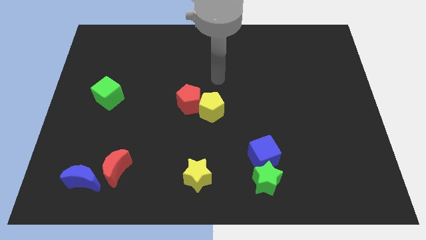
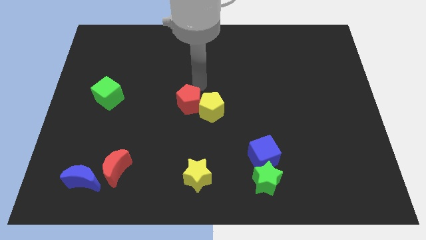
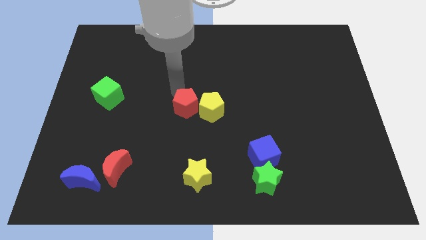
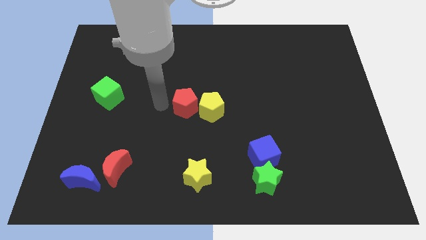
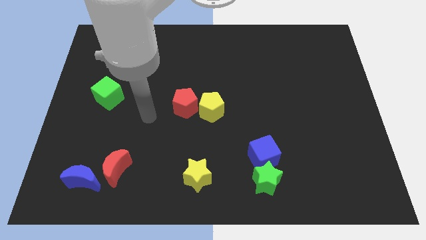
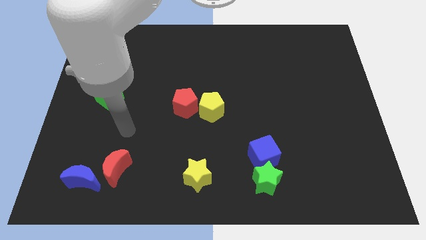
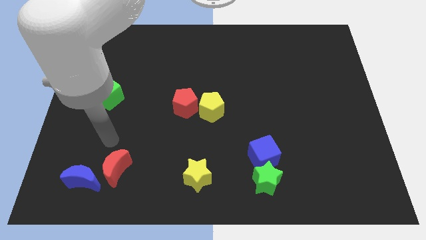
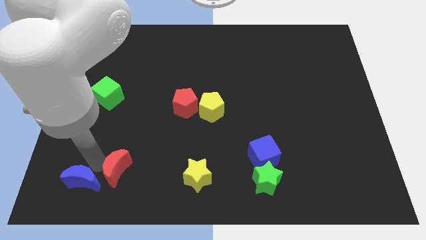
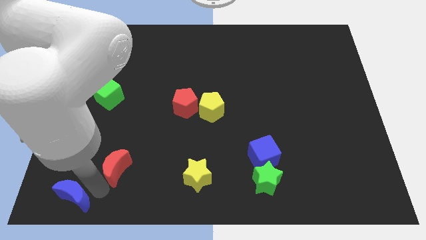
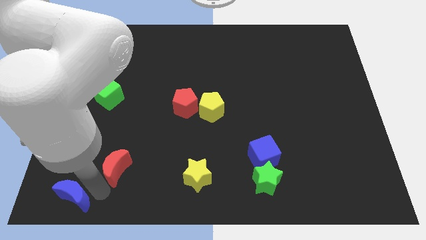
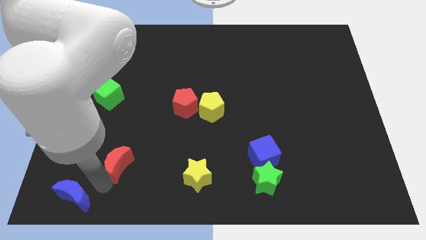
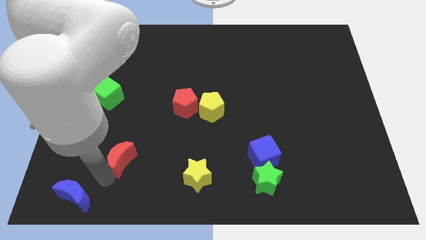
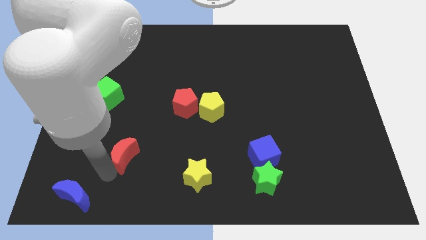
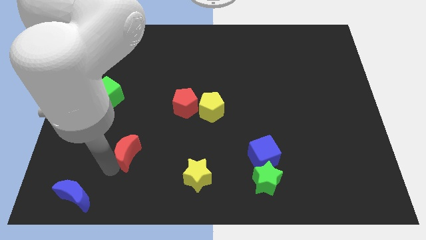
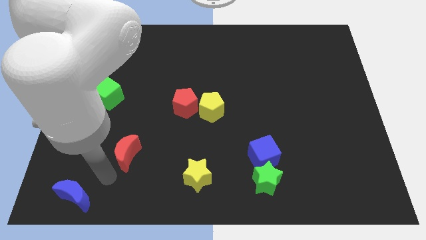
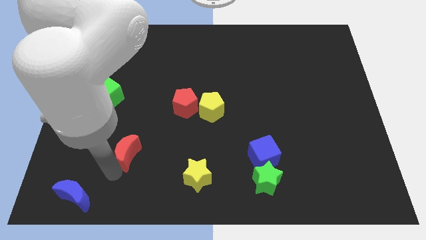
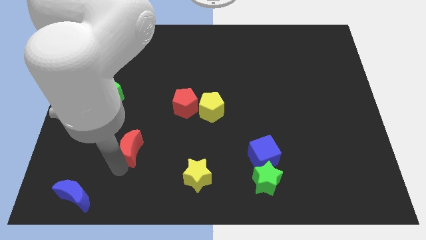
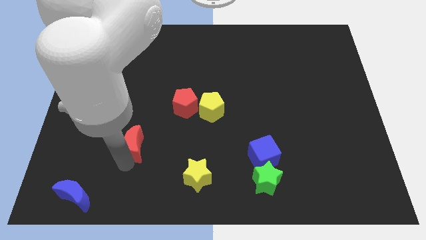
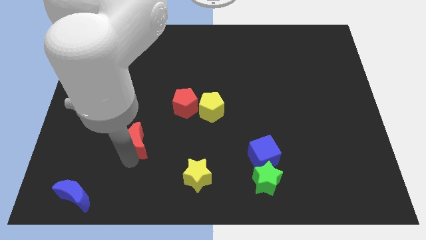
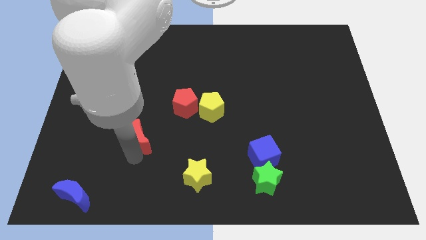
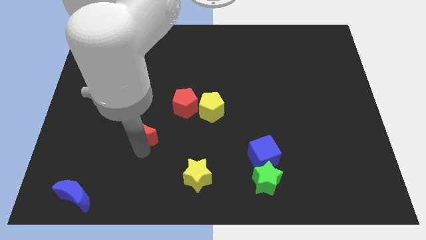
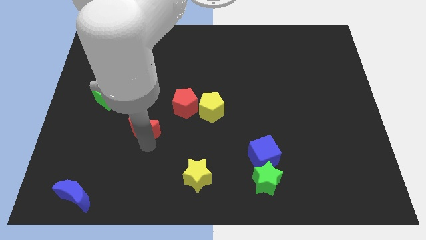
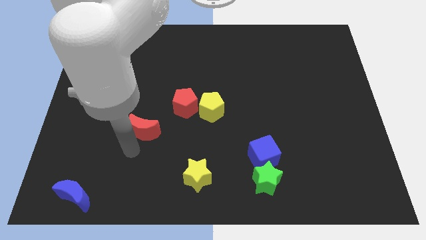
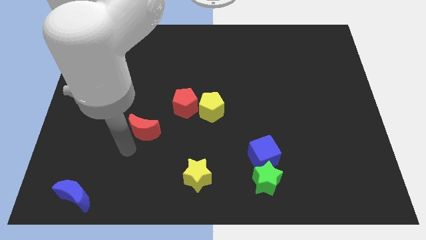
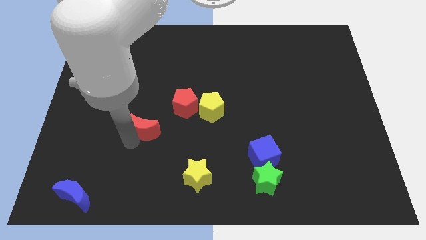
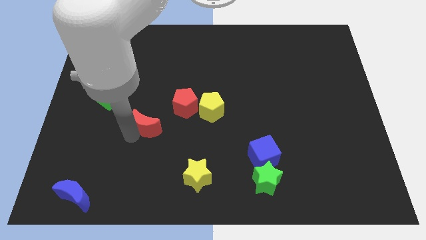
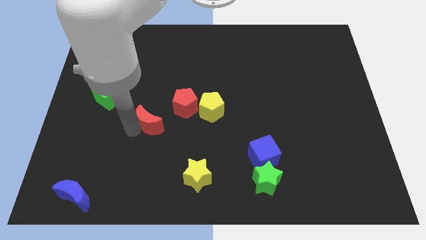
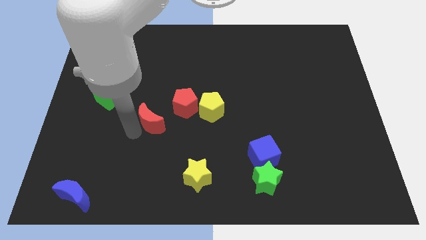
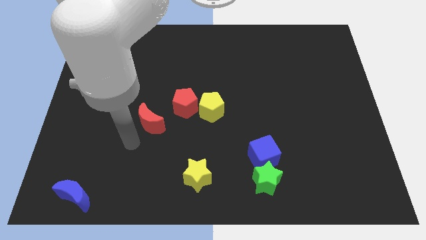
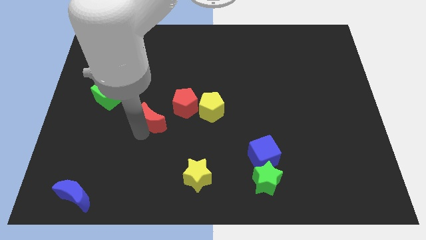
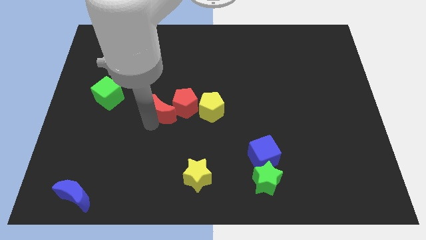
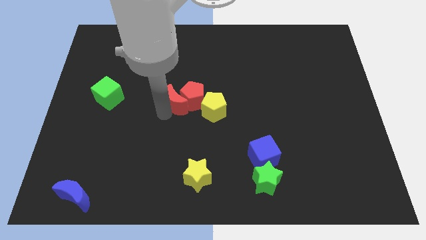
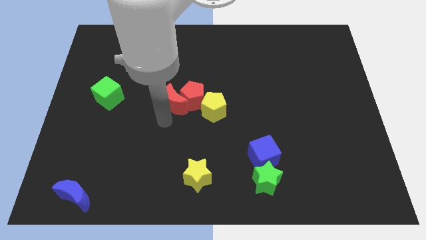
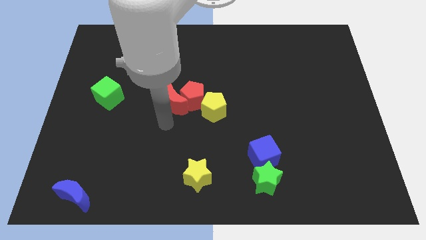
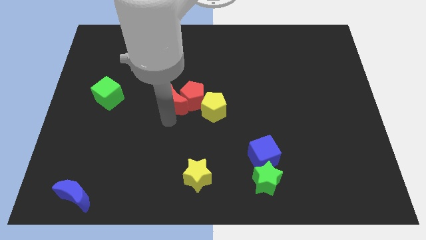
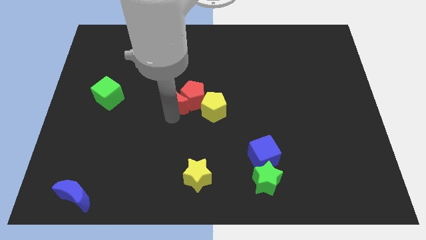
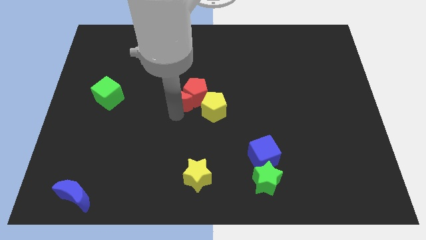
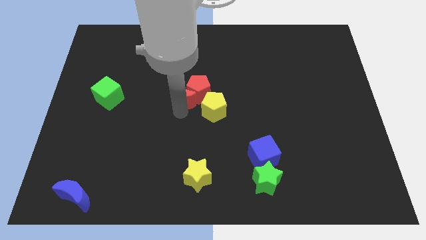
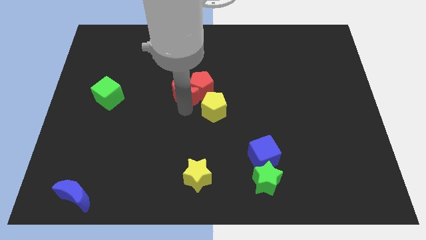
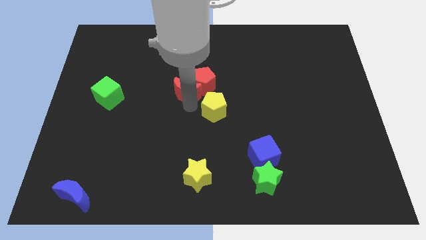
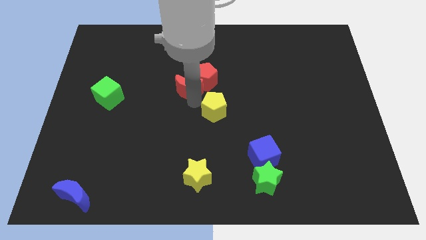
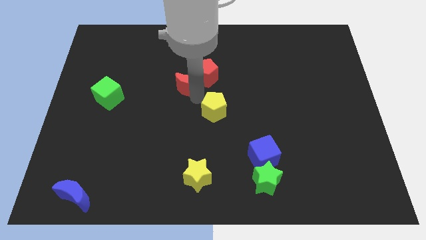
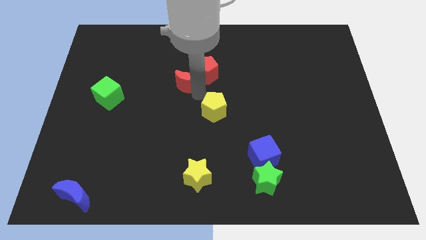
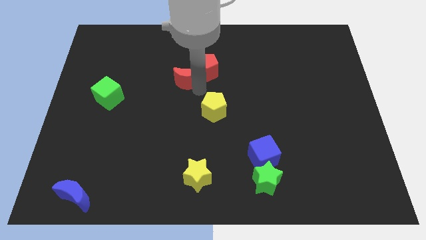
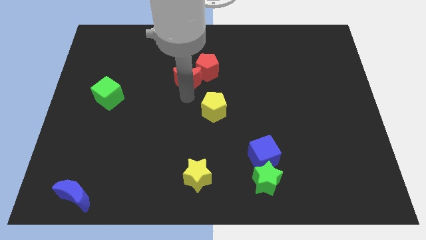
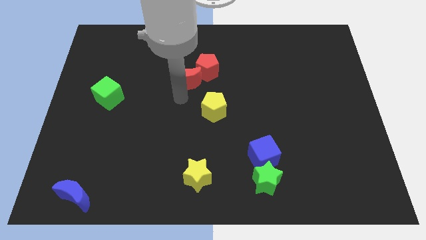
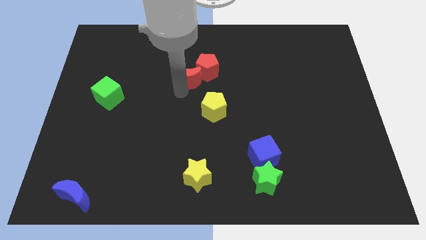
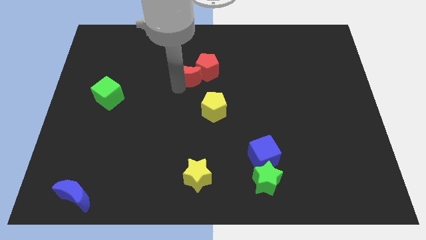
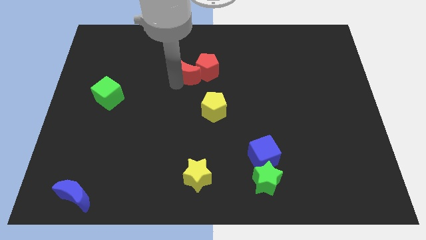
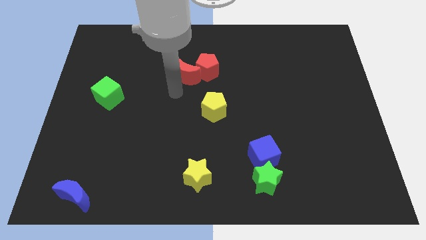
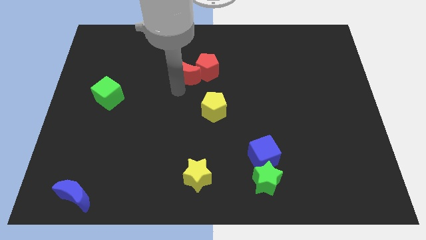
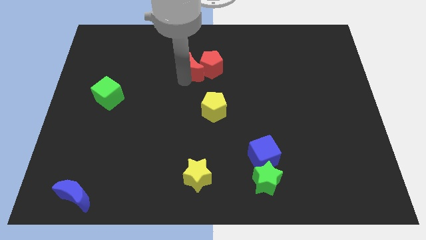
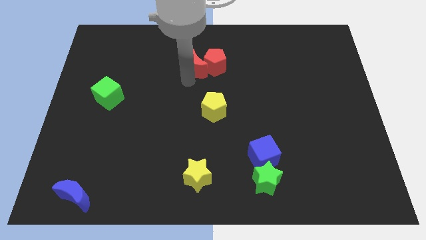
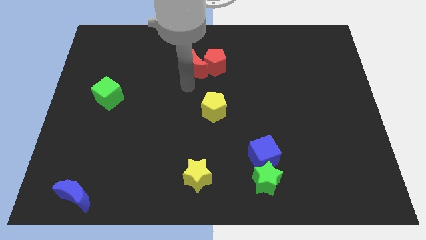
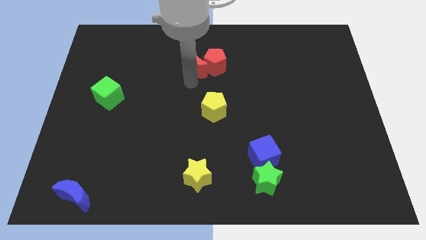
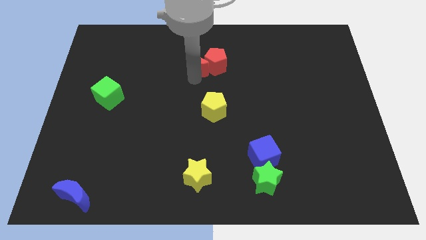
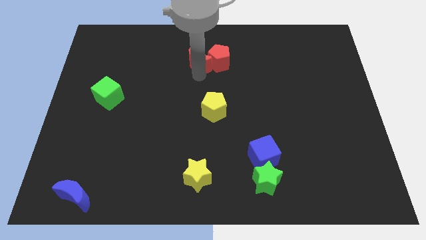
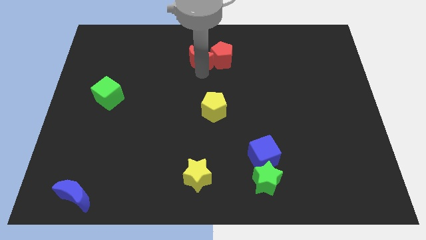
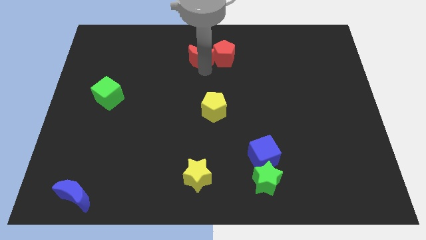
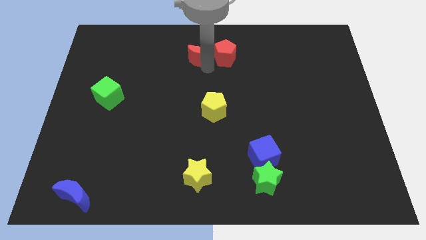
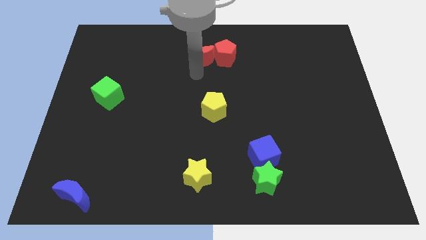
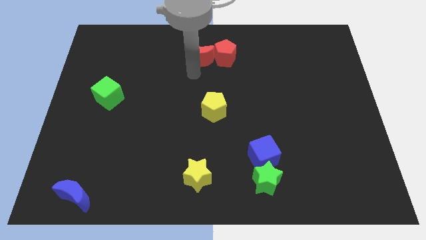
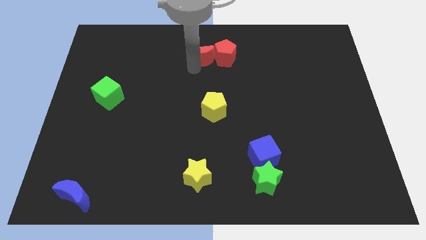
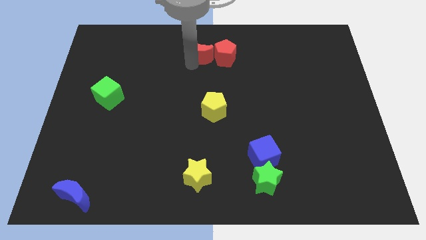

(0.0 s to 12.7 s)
move the red moon to the top side

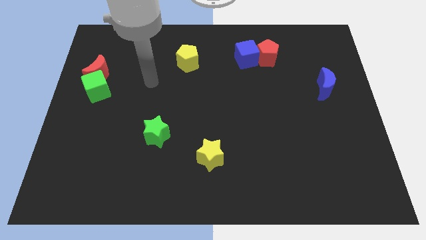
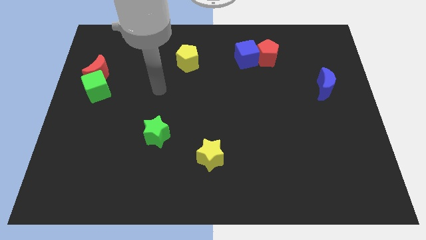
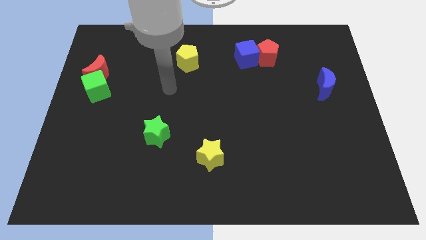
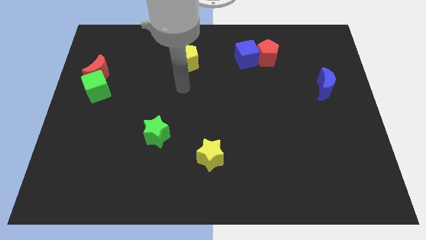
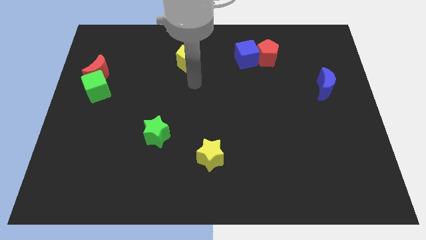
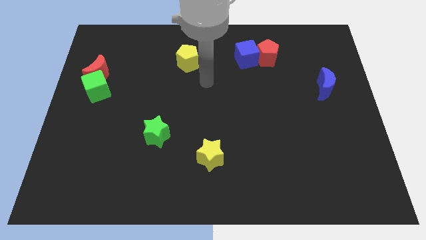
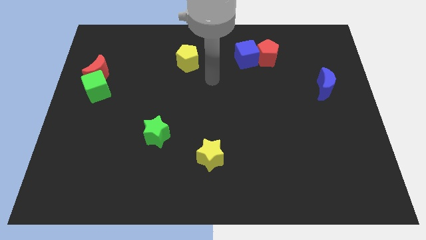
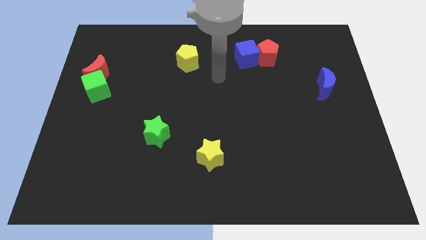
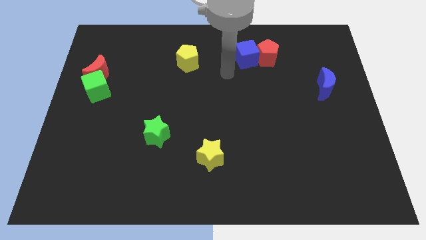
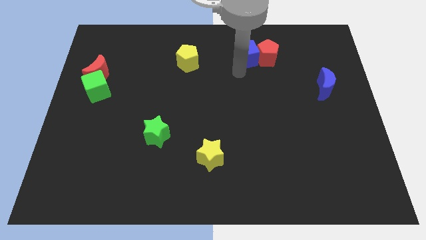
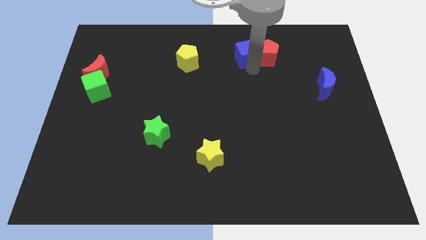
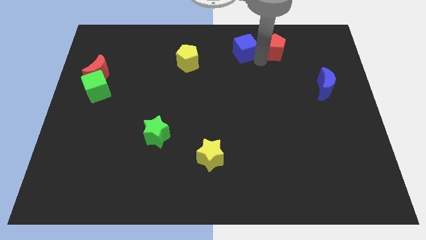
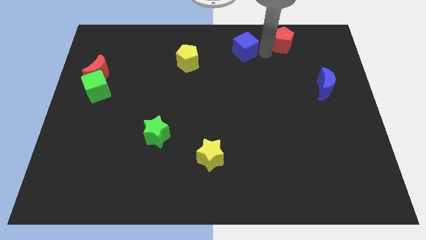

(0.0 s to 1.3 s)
push the blue cube to the top
